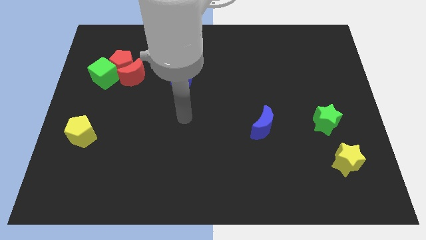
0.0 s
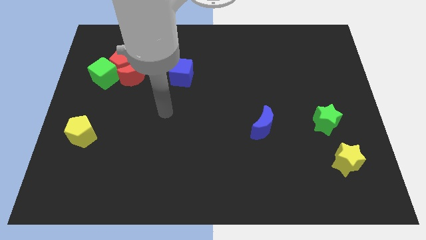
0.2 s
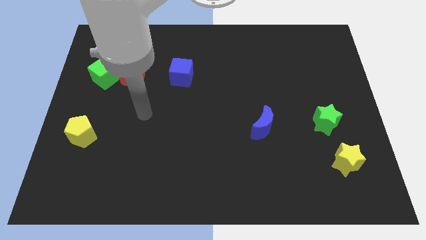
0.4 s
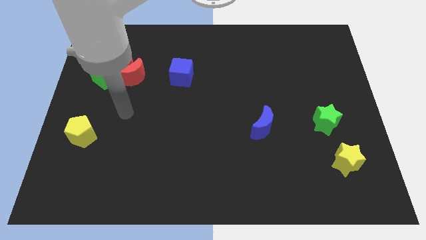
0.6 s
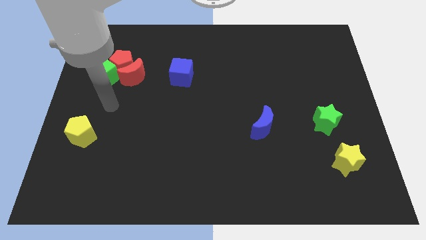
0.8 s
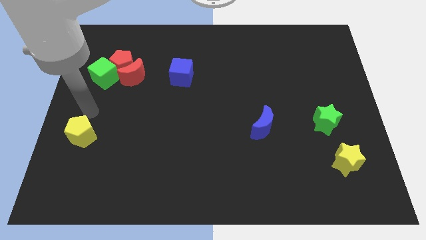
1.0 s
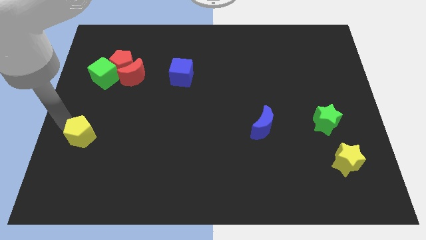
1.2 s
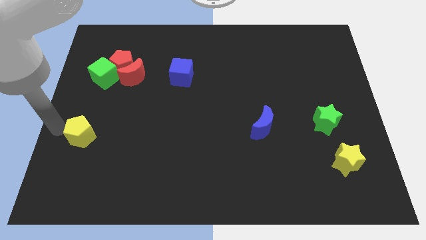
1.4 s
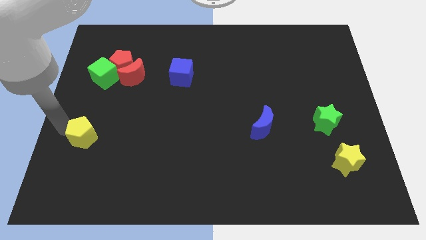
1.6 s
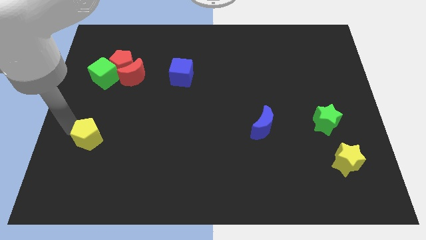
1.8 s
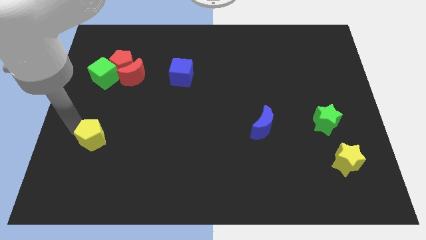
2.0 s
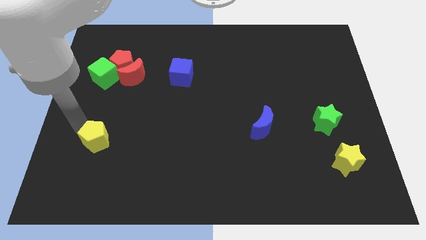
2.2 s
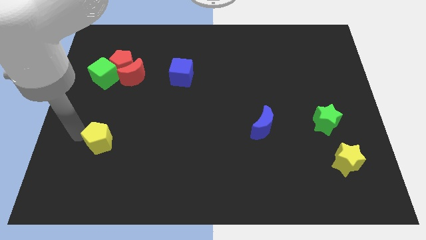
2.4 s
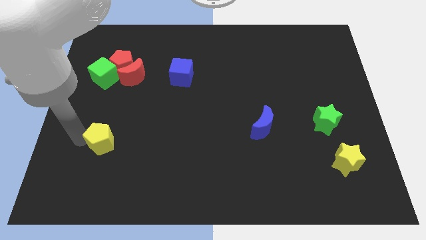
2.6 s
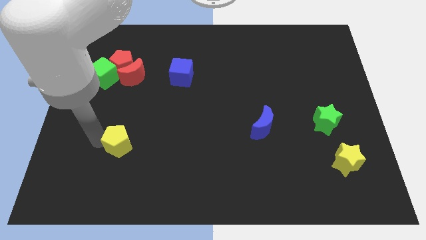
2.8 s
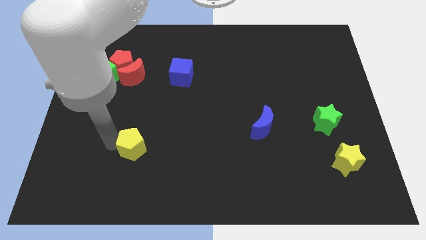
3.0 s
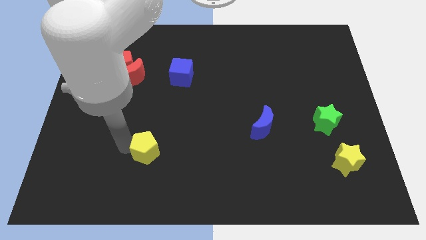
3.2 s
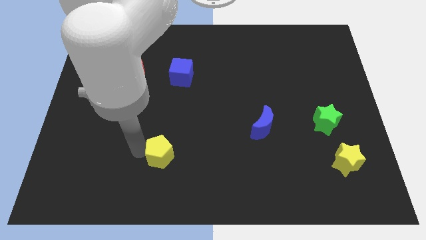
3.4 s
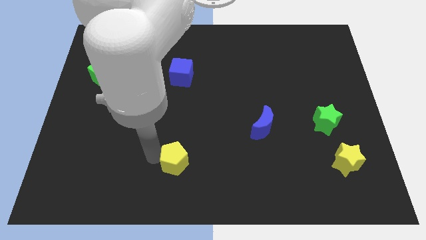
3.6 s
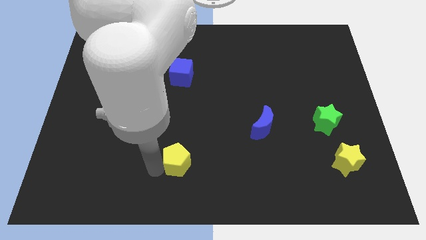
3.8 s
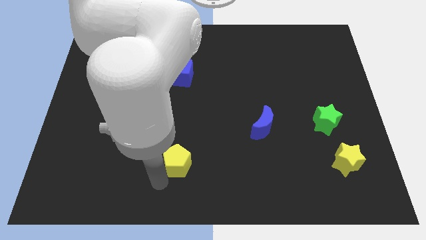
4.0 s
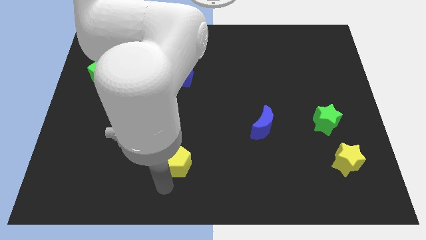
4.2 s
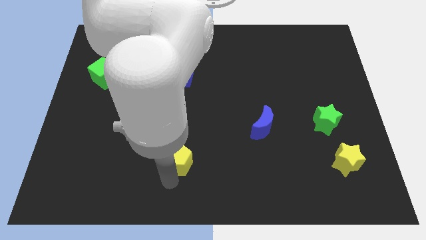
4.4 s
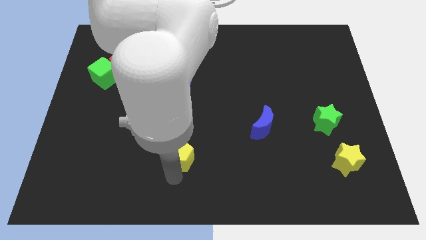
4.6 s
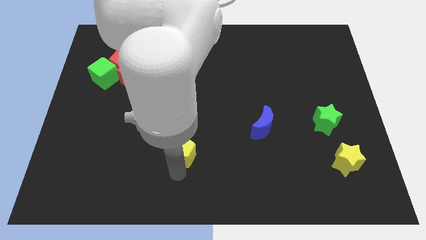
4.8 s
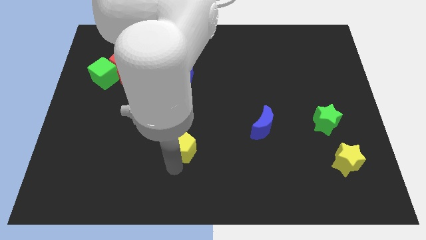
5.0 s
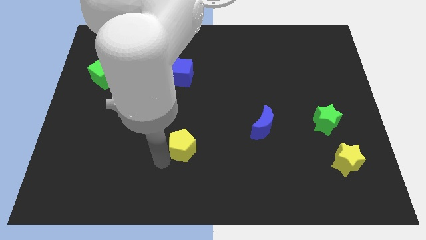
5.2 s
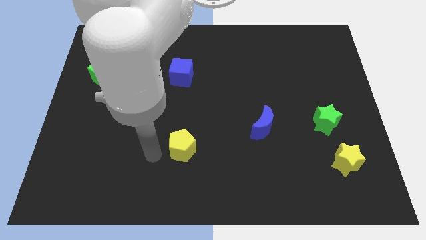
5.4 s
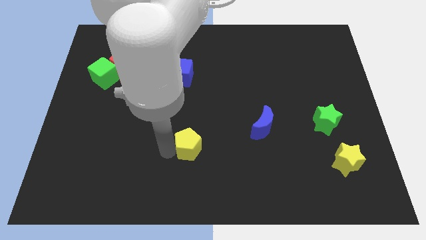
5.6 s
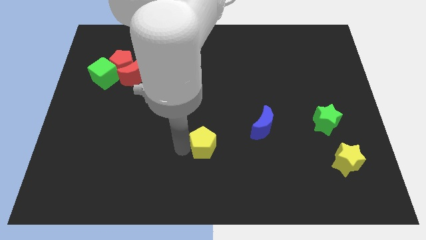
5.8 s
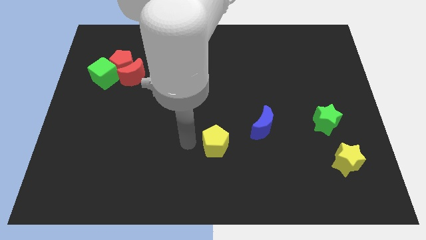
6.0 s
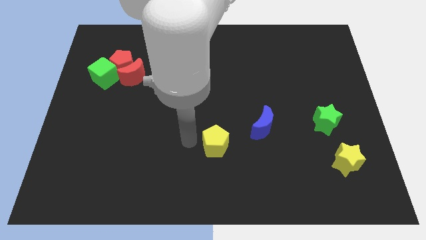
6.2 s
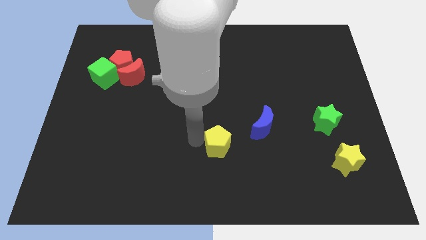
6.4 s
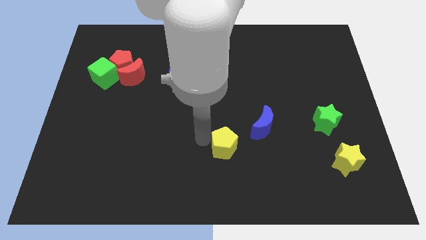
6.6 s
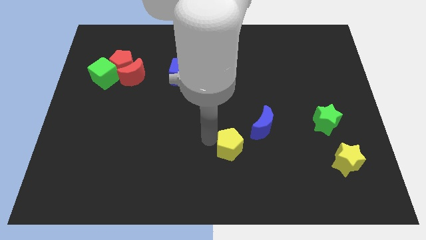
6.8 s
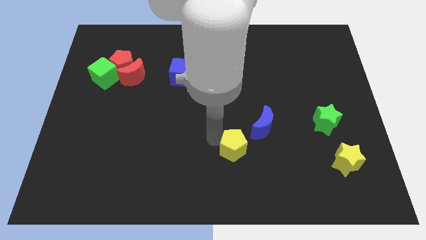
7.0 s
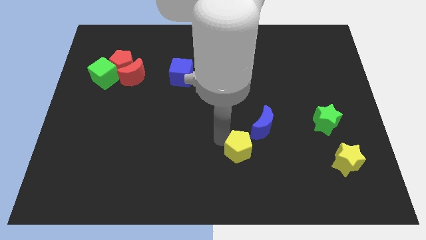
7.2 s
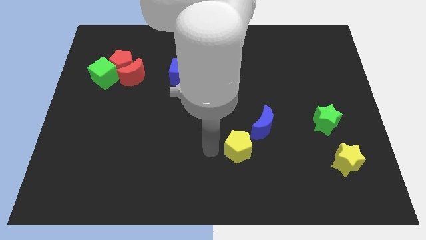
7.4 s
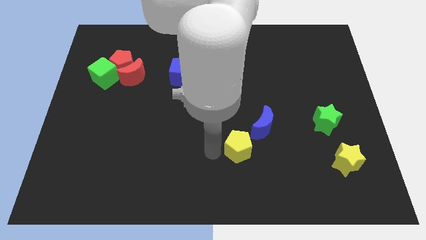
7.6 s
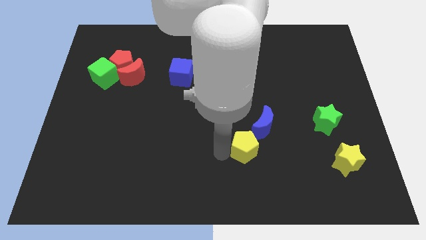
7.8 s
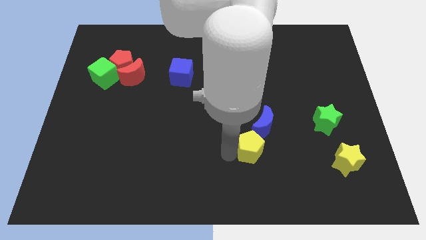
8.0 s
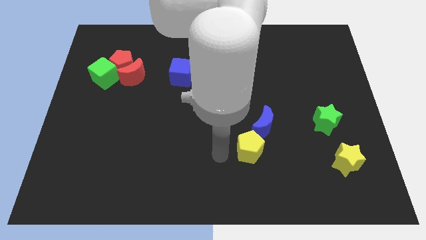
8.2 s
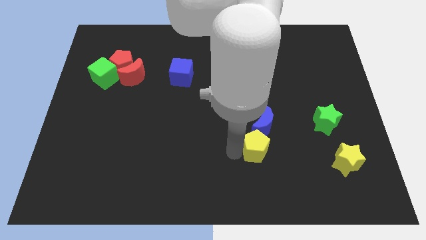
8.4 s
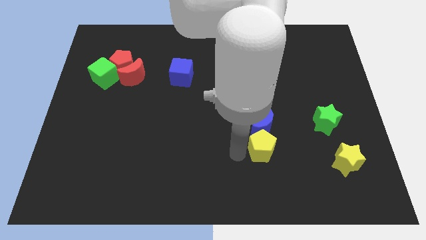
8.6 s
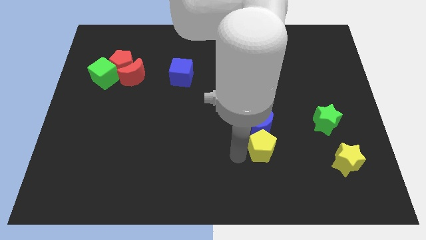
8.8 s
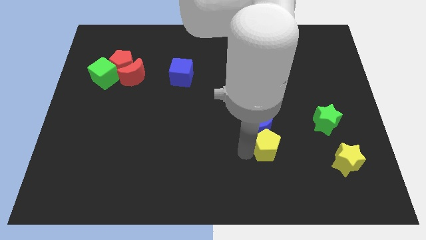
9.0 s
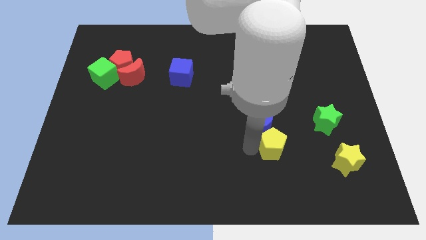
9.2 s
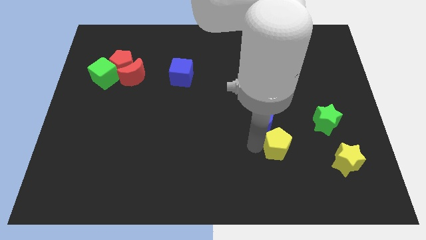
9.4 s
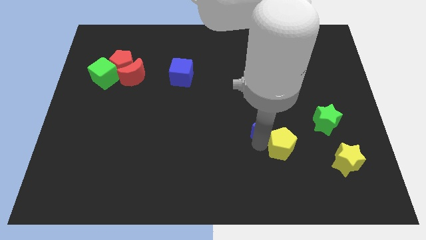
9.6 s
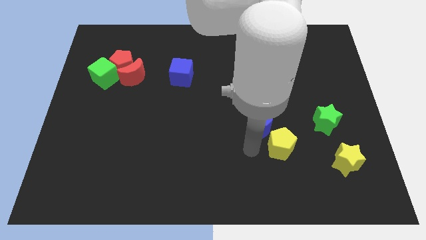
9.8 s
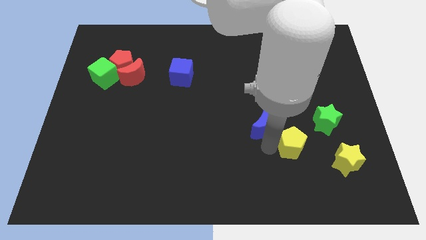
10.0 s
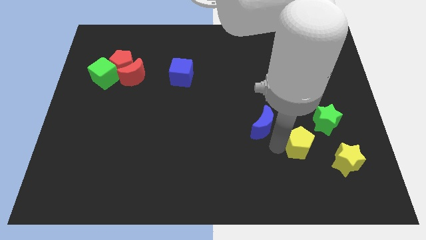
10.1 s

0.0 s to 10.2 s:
slide the yellow pentagon to the top left of the yellow star

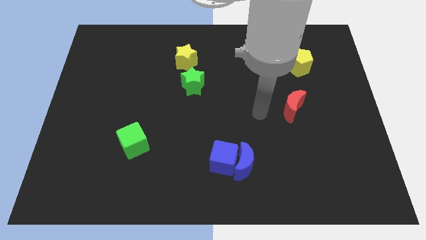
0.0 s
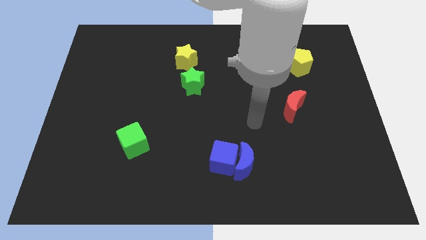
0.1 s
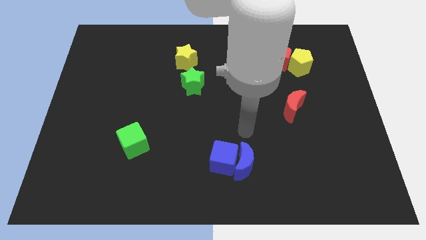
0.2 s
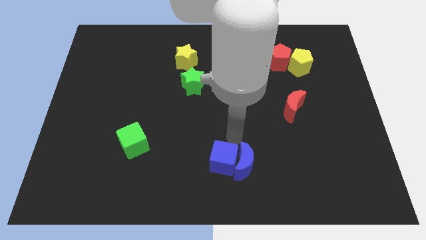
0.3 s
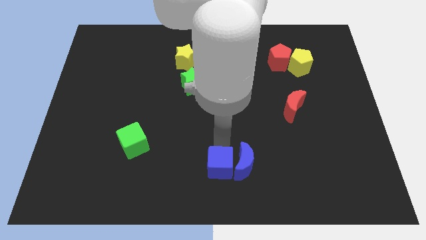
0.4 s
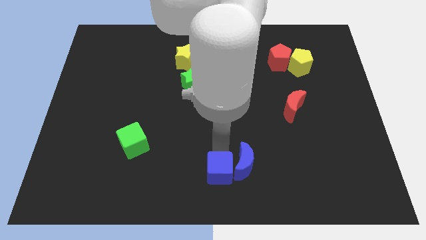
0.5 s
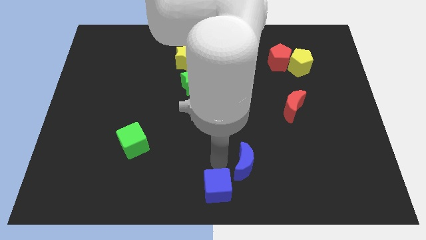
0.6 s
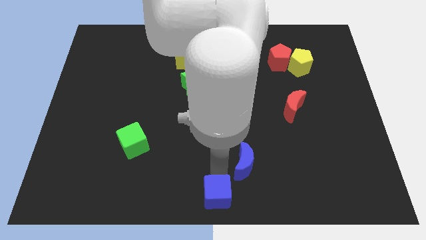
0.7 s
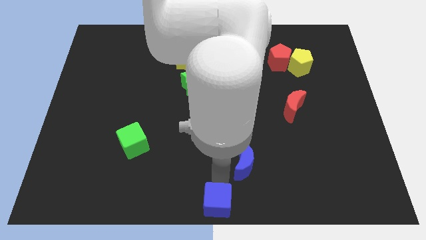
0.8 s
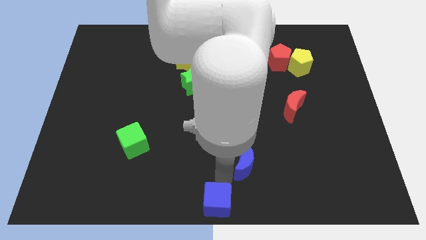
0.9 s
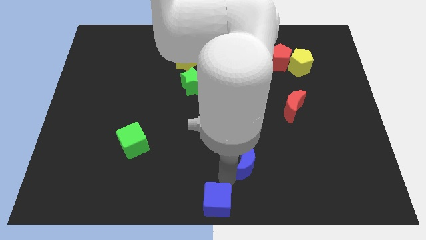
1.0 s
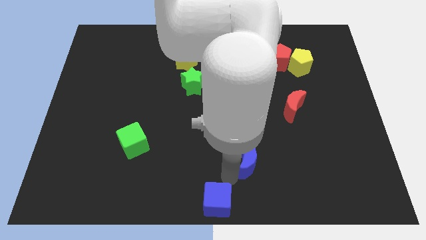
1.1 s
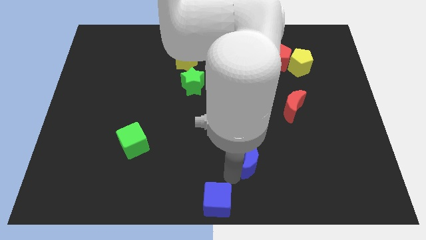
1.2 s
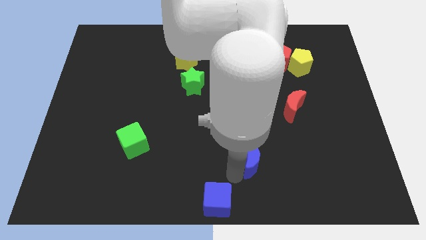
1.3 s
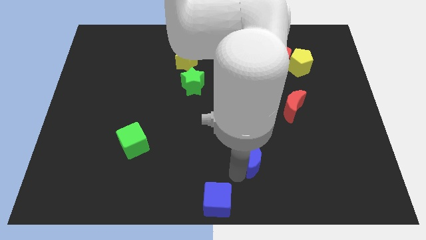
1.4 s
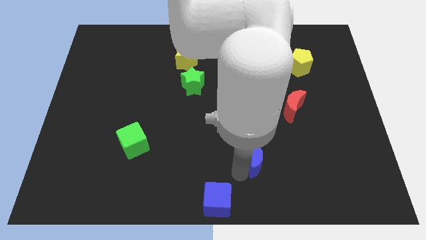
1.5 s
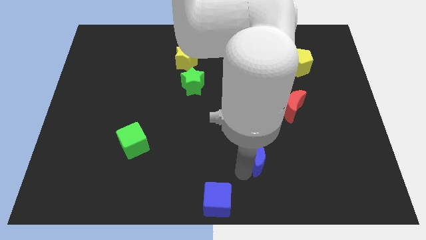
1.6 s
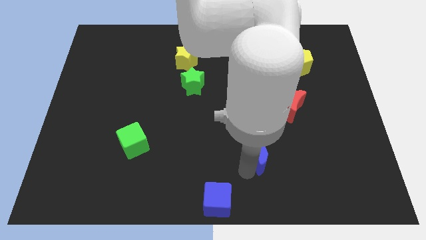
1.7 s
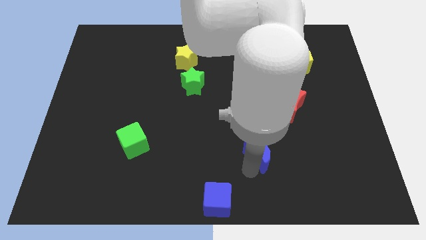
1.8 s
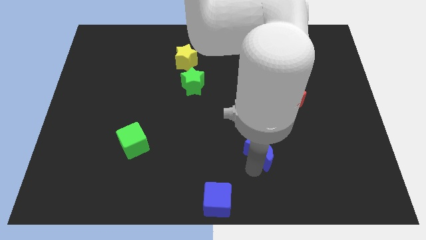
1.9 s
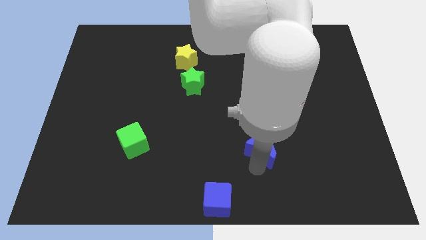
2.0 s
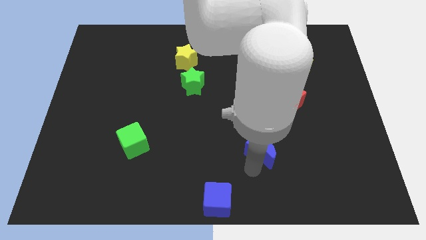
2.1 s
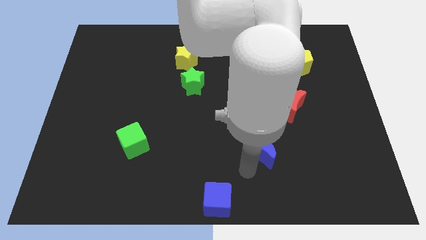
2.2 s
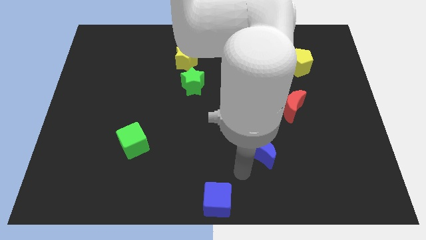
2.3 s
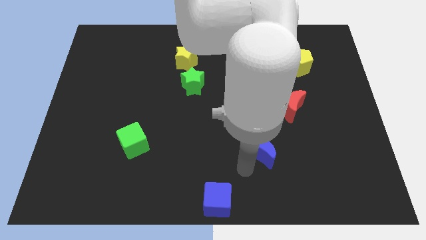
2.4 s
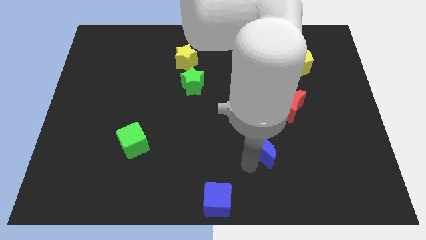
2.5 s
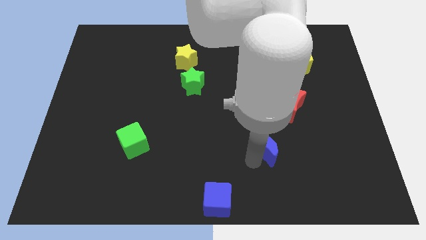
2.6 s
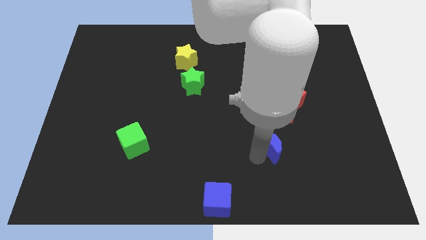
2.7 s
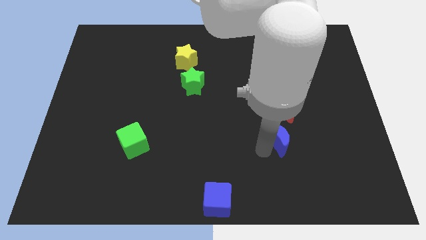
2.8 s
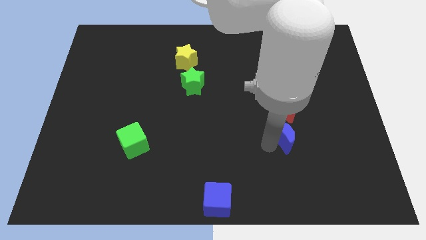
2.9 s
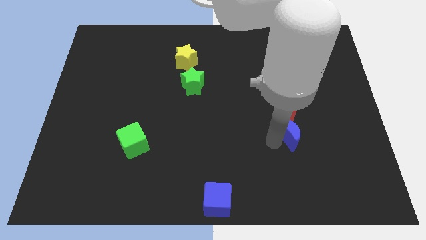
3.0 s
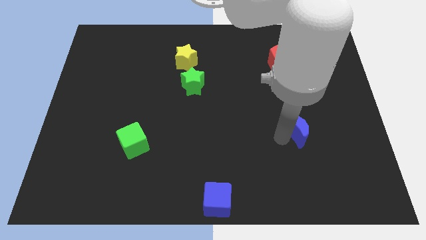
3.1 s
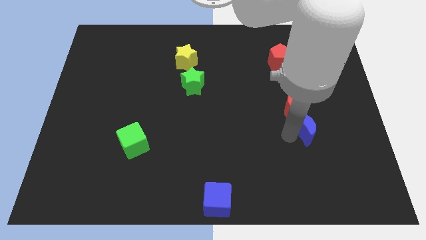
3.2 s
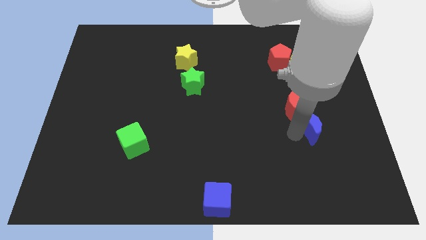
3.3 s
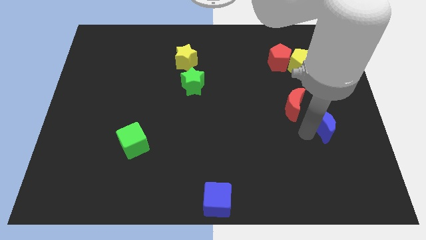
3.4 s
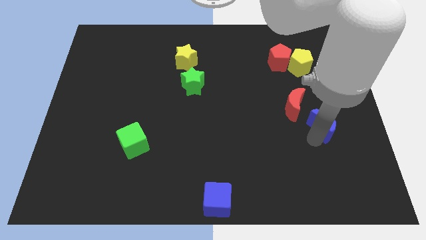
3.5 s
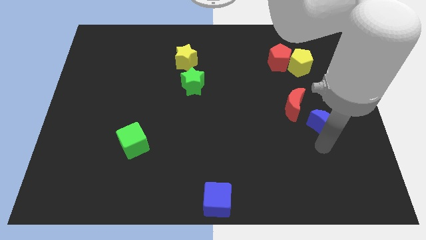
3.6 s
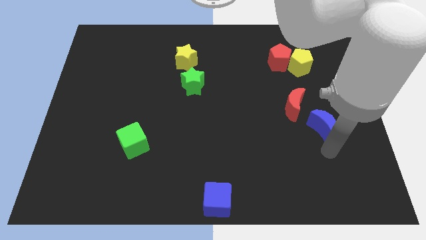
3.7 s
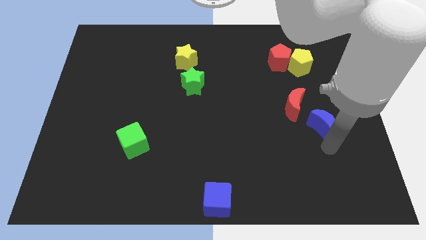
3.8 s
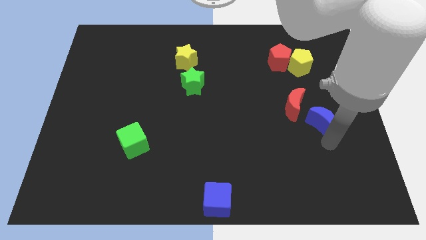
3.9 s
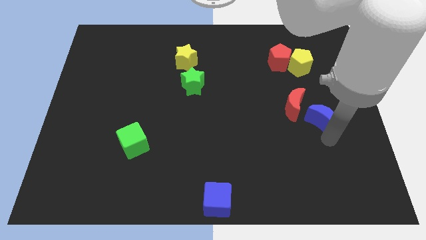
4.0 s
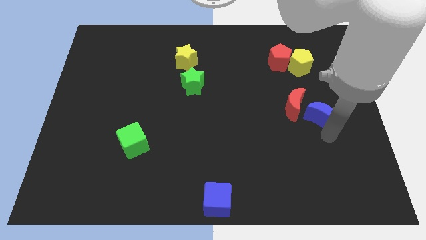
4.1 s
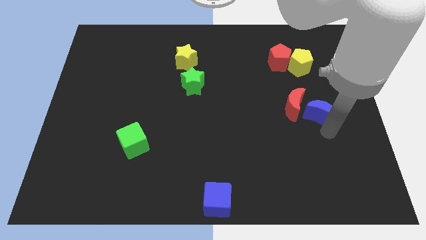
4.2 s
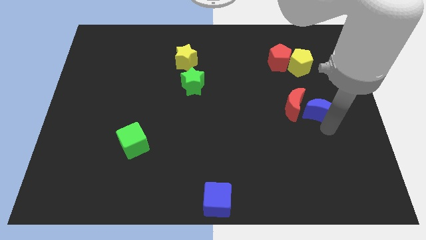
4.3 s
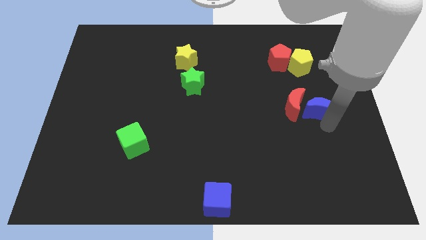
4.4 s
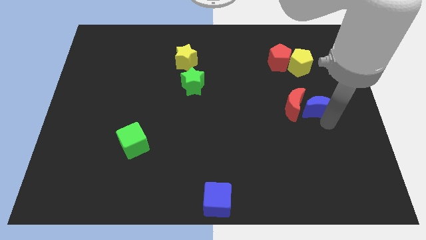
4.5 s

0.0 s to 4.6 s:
push the blue moon diagonally up and to the right of the red moon
